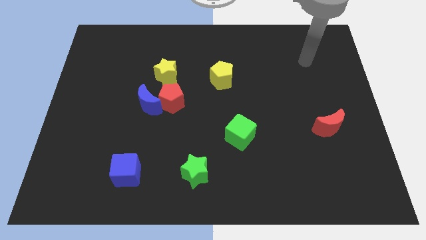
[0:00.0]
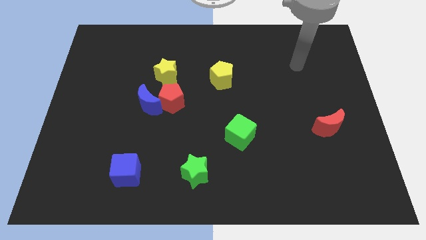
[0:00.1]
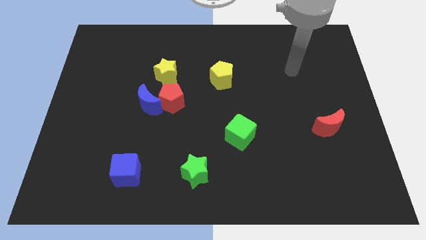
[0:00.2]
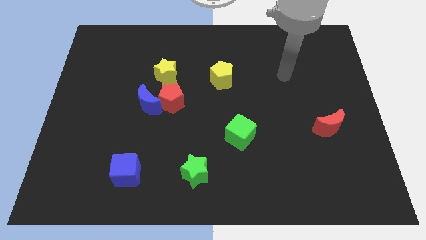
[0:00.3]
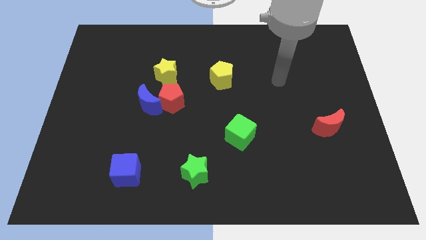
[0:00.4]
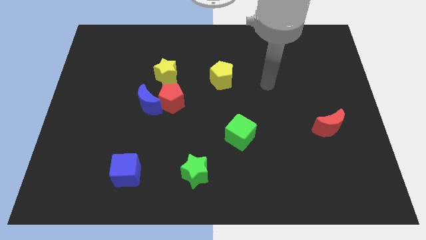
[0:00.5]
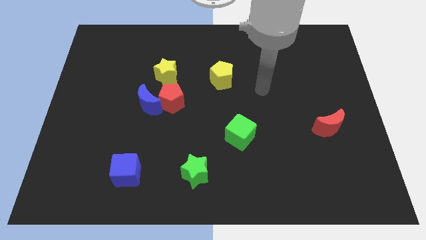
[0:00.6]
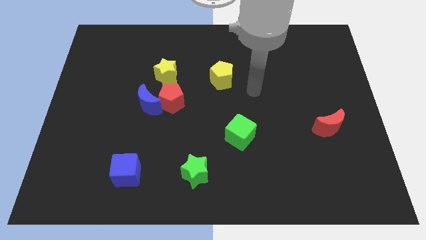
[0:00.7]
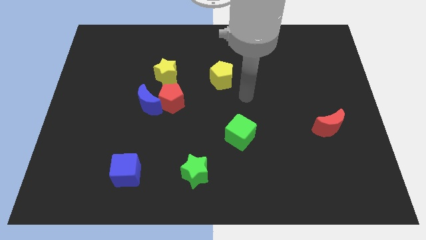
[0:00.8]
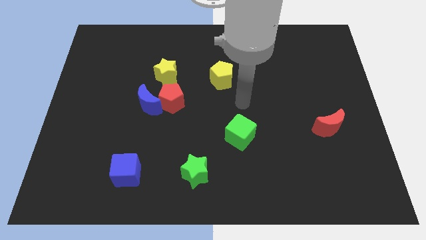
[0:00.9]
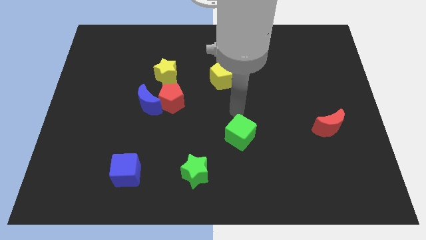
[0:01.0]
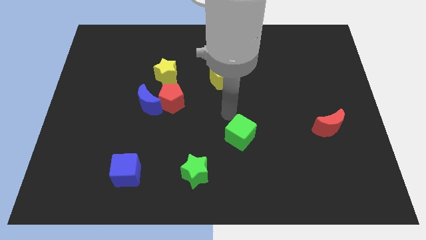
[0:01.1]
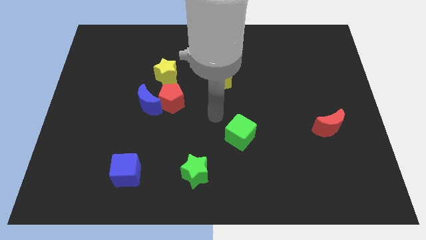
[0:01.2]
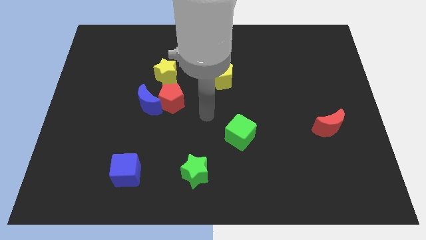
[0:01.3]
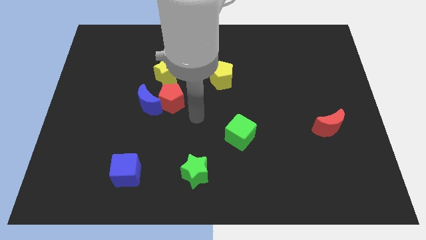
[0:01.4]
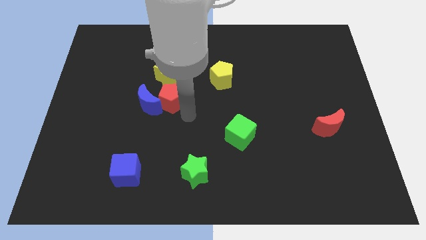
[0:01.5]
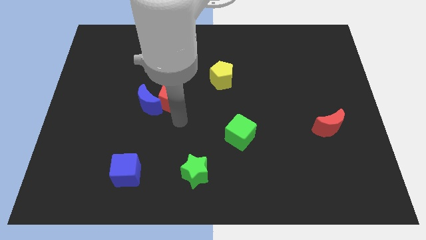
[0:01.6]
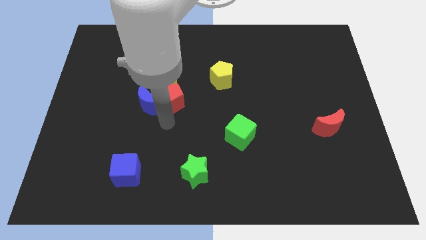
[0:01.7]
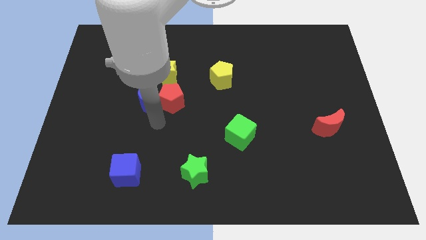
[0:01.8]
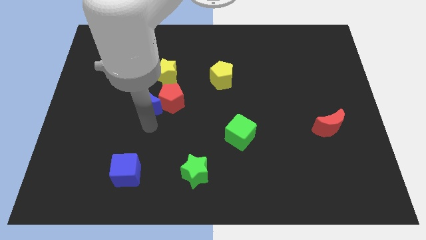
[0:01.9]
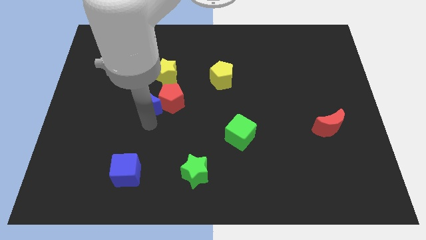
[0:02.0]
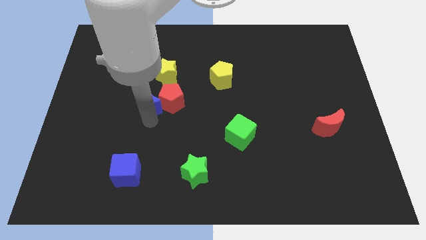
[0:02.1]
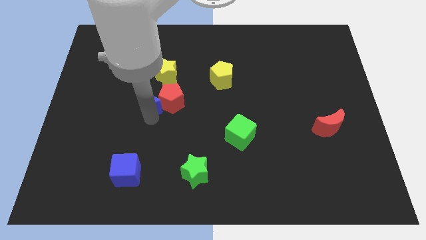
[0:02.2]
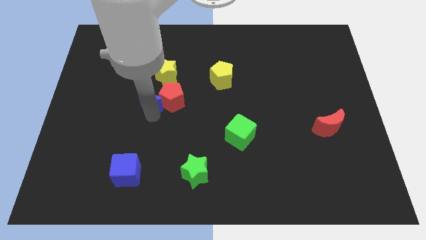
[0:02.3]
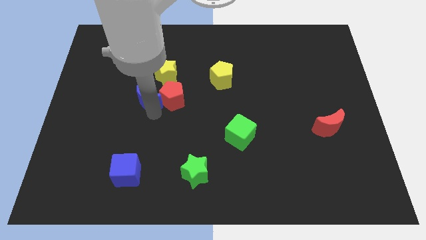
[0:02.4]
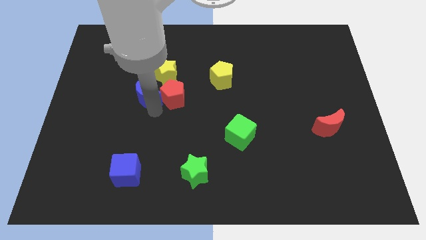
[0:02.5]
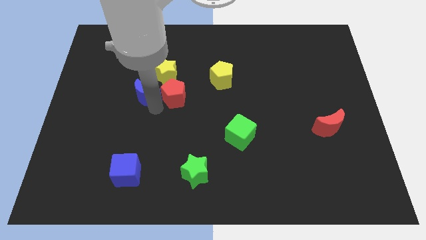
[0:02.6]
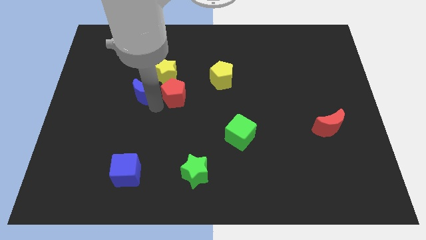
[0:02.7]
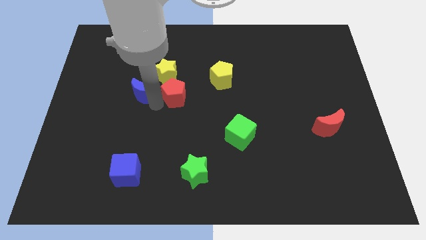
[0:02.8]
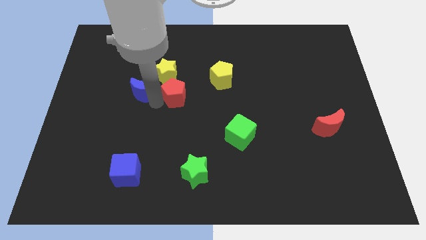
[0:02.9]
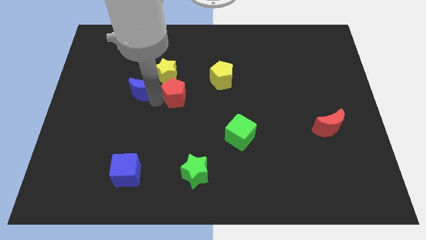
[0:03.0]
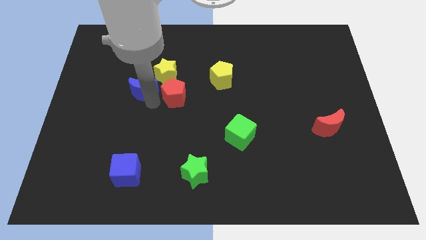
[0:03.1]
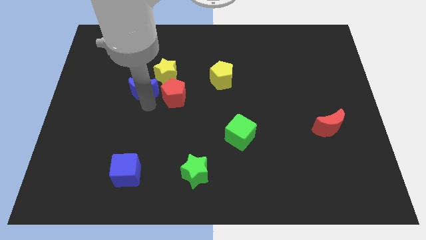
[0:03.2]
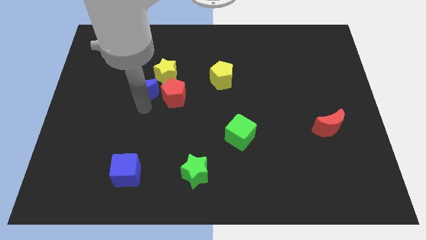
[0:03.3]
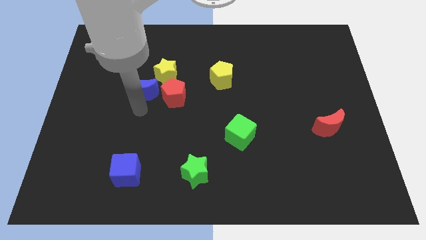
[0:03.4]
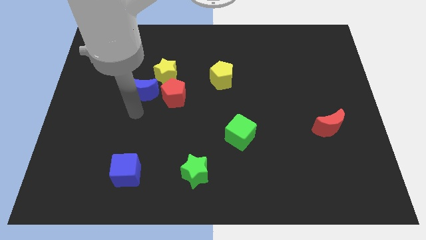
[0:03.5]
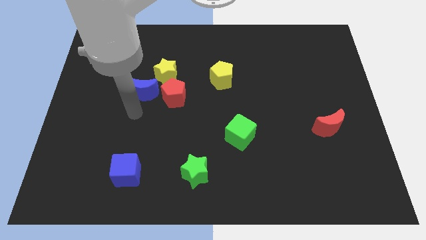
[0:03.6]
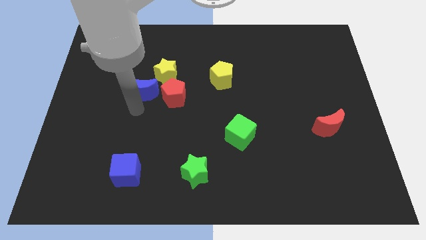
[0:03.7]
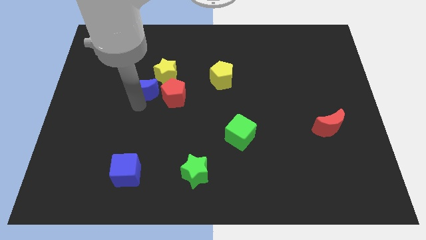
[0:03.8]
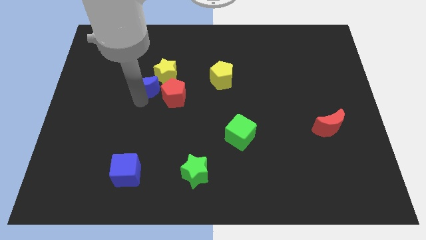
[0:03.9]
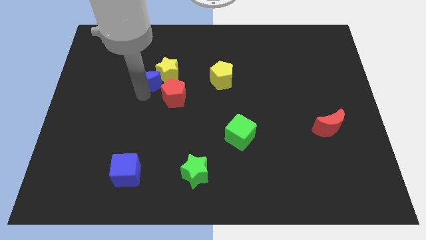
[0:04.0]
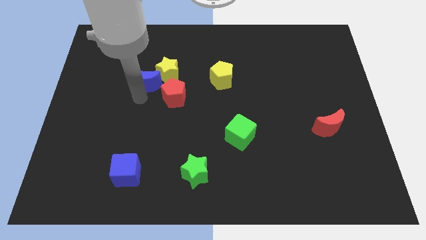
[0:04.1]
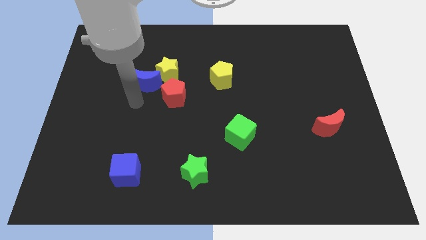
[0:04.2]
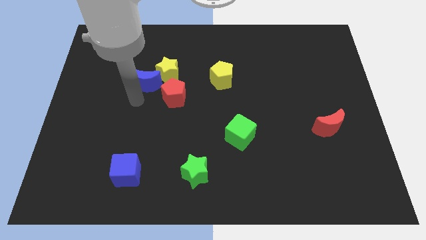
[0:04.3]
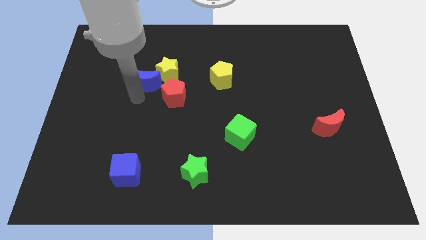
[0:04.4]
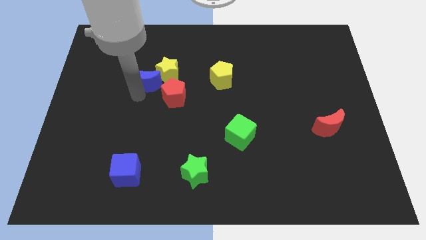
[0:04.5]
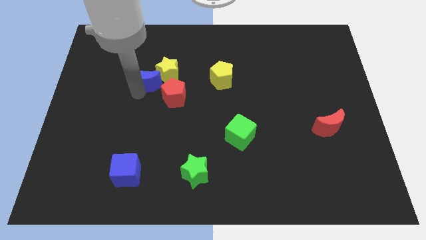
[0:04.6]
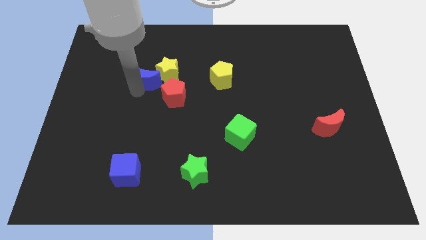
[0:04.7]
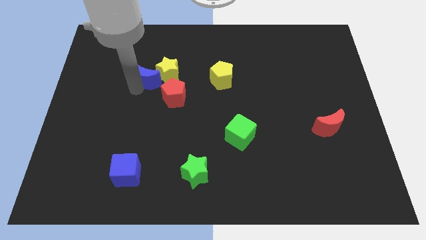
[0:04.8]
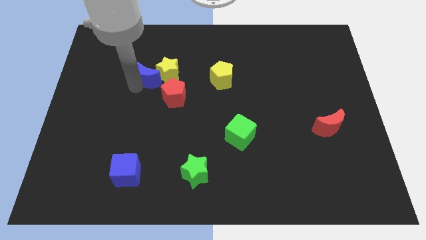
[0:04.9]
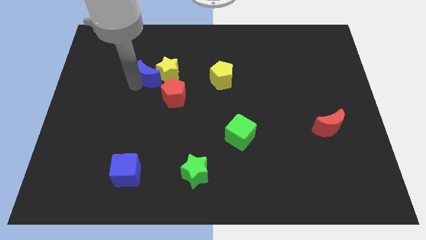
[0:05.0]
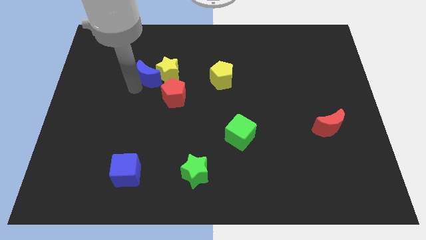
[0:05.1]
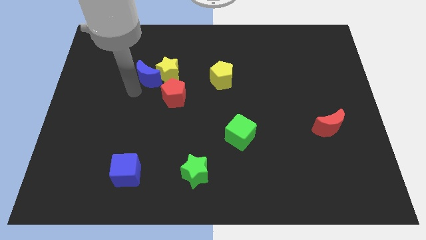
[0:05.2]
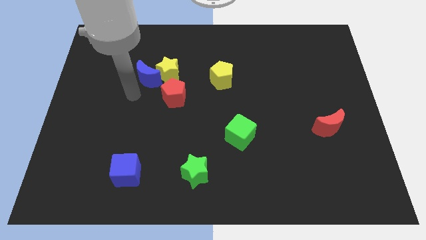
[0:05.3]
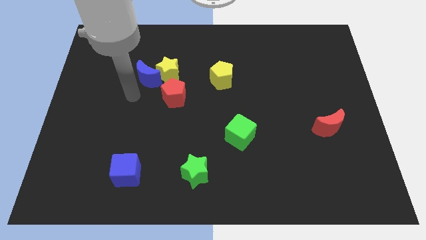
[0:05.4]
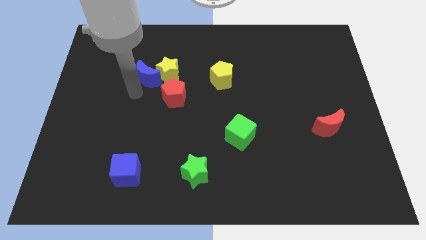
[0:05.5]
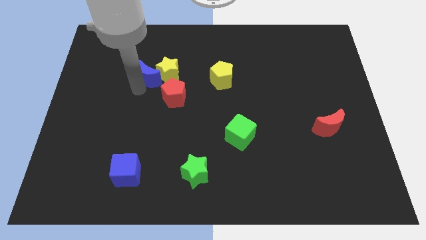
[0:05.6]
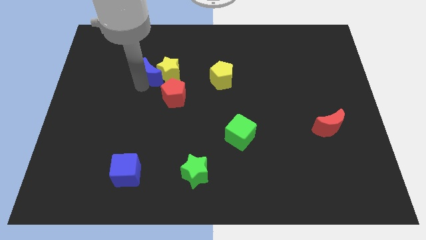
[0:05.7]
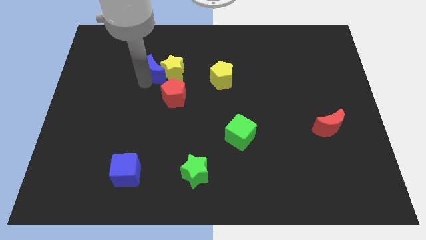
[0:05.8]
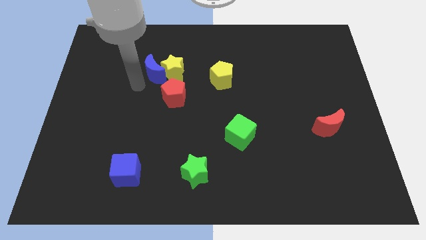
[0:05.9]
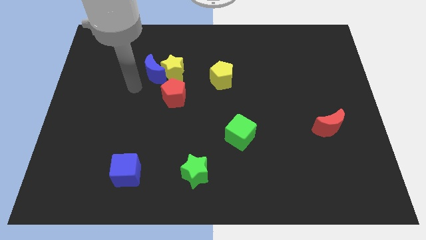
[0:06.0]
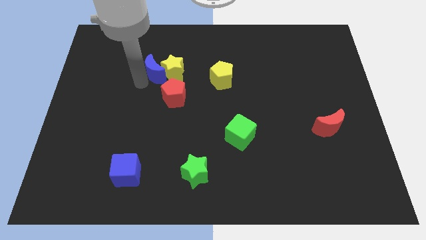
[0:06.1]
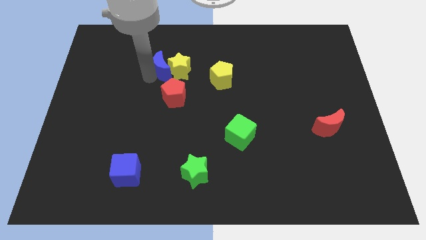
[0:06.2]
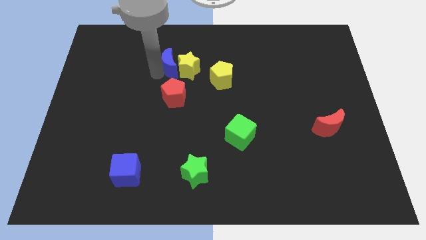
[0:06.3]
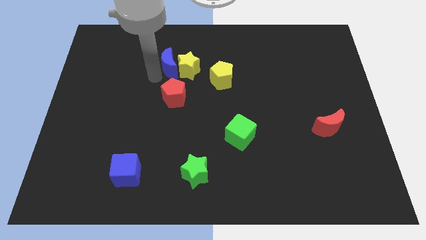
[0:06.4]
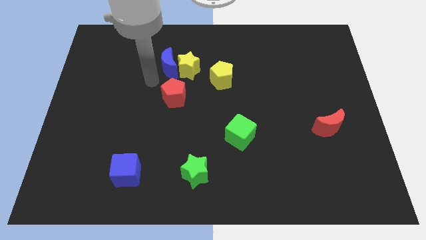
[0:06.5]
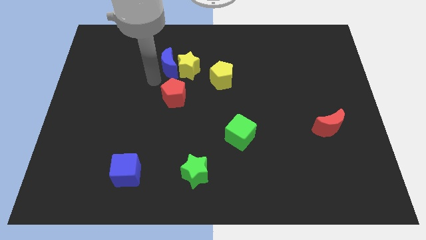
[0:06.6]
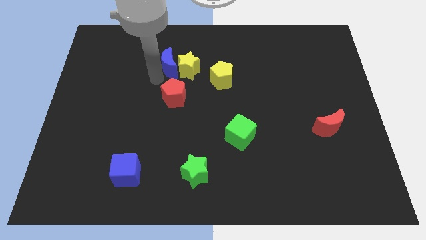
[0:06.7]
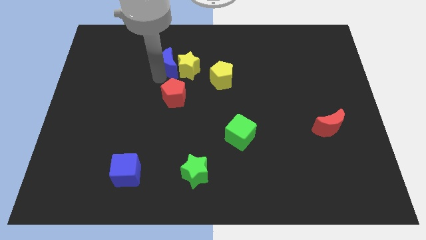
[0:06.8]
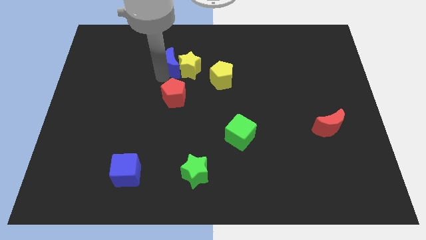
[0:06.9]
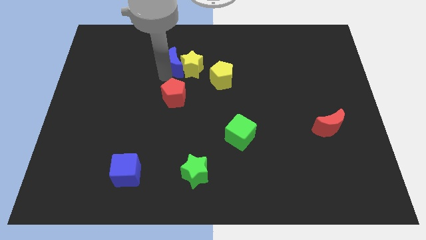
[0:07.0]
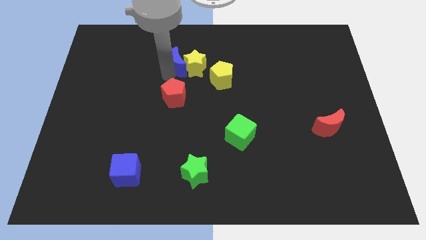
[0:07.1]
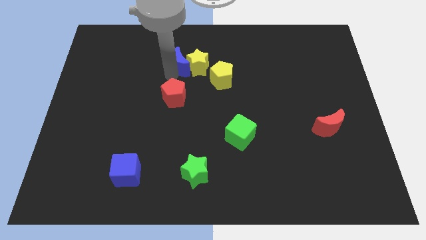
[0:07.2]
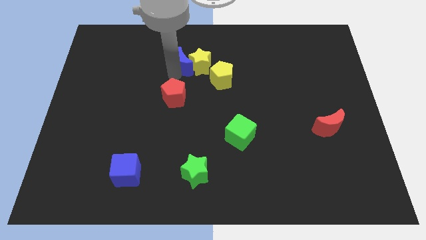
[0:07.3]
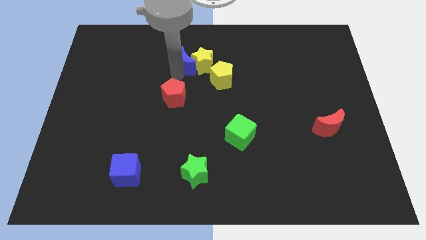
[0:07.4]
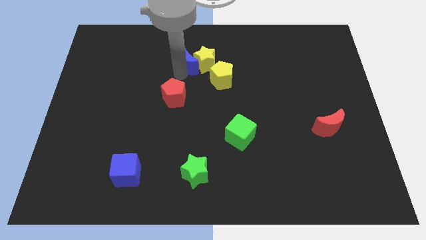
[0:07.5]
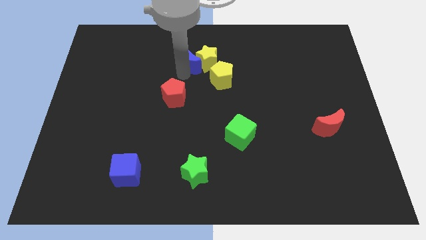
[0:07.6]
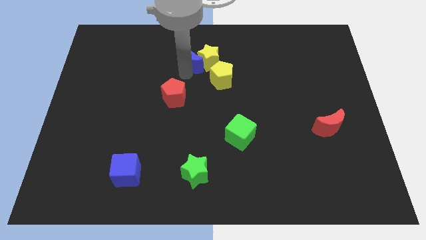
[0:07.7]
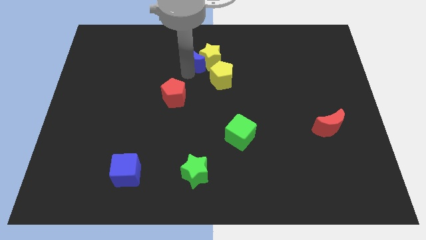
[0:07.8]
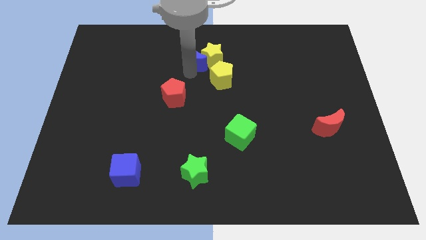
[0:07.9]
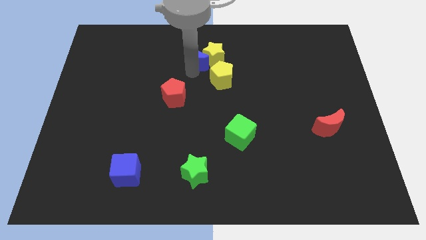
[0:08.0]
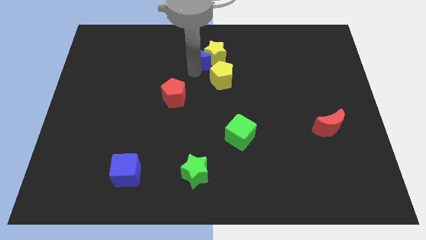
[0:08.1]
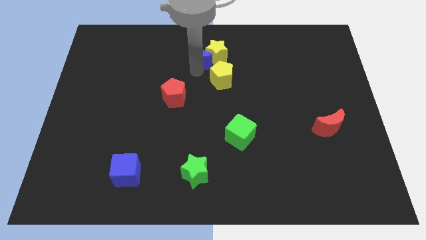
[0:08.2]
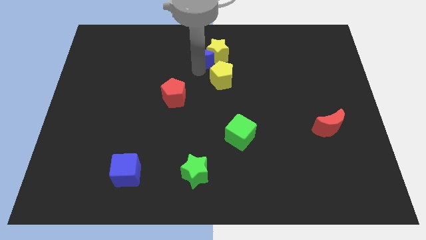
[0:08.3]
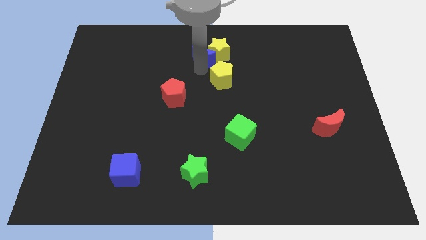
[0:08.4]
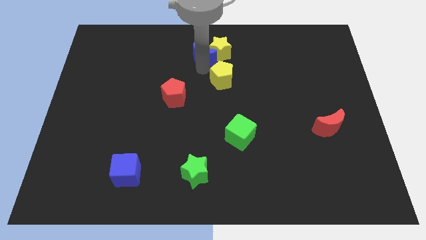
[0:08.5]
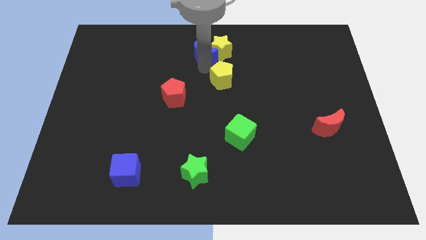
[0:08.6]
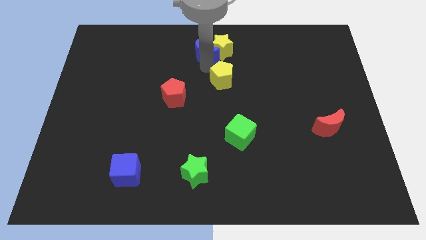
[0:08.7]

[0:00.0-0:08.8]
slide the blue moon to the towards your base
